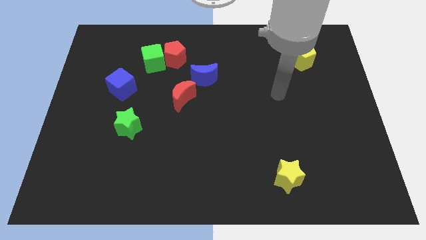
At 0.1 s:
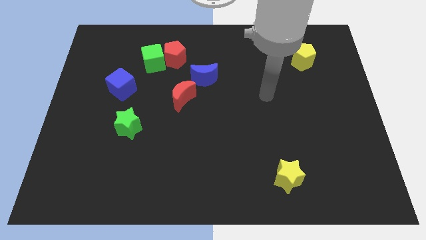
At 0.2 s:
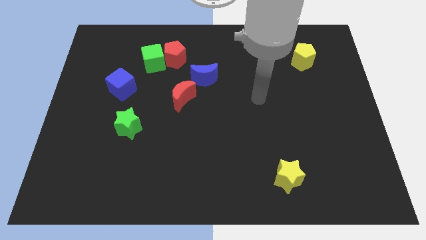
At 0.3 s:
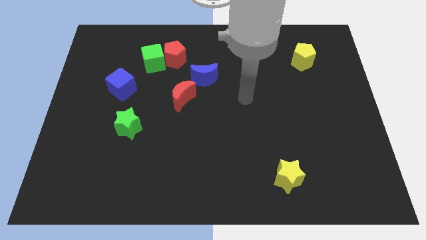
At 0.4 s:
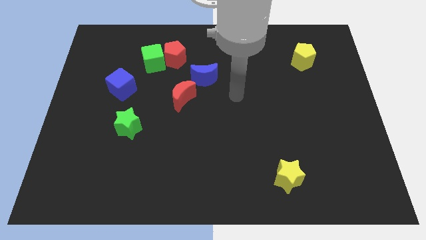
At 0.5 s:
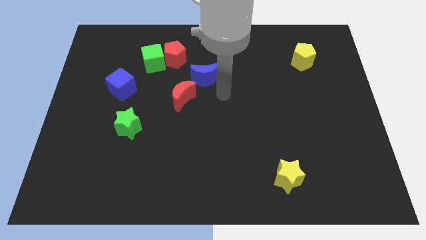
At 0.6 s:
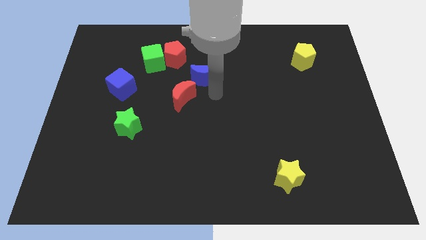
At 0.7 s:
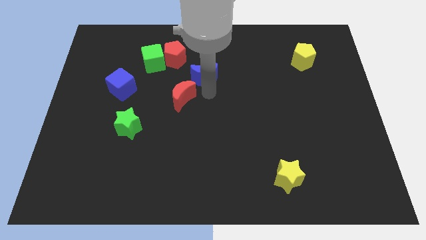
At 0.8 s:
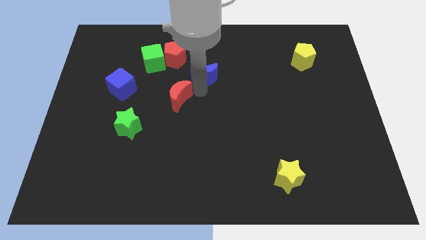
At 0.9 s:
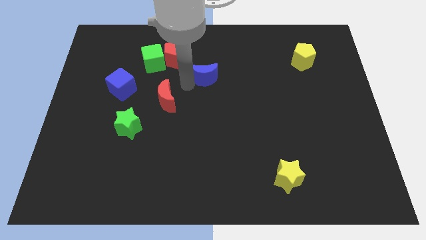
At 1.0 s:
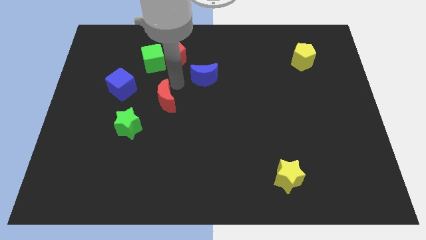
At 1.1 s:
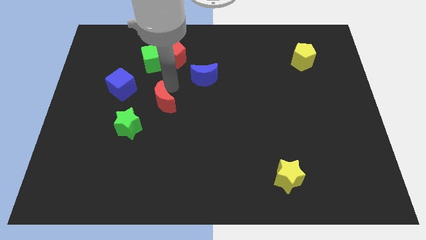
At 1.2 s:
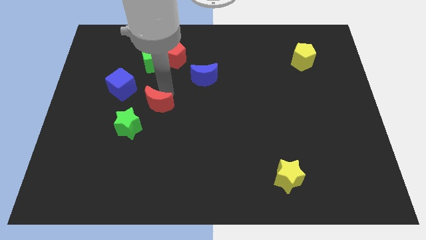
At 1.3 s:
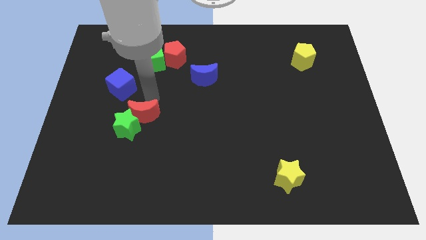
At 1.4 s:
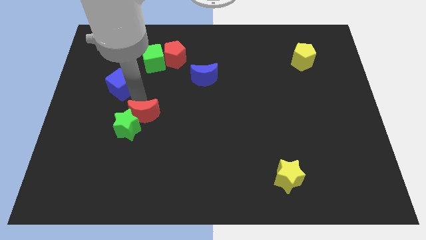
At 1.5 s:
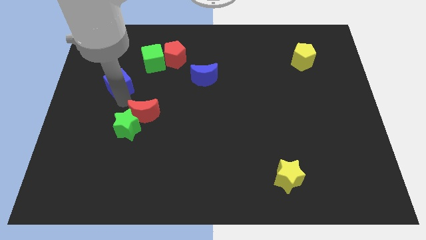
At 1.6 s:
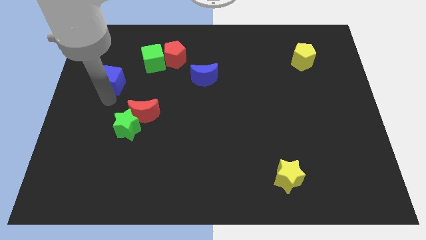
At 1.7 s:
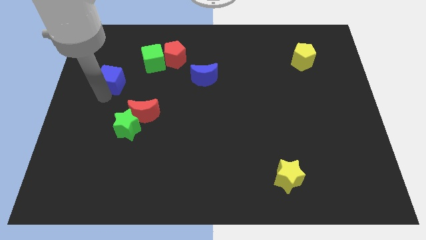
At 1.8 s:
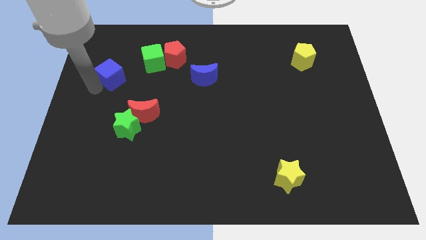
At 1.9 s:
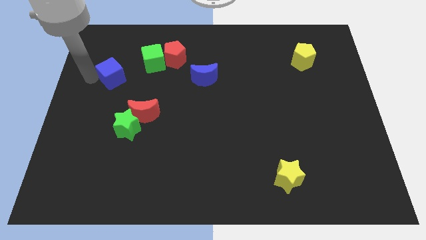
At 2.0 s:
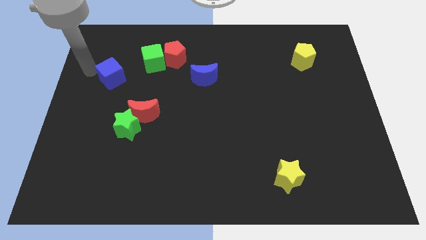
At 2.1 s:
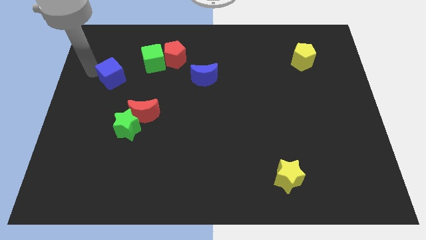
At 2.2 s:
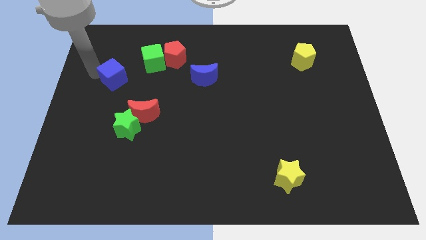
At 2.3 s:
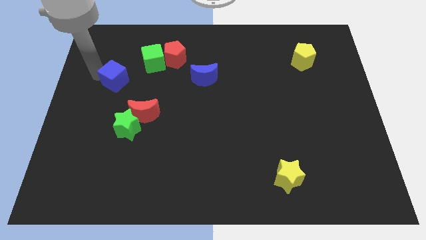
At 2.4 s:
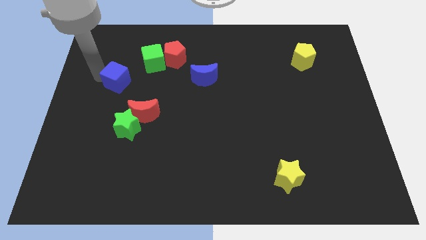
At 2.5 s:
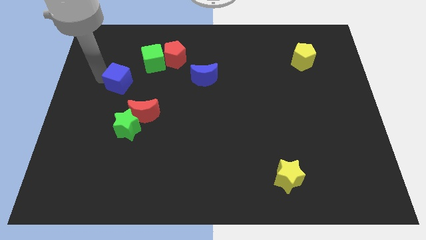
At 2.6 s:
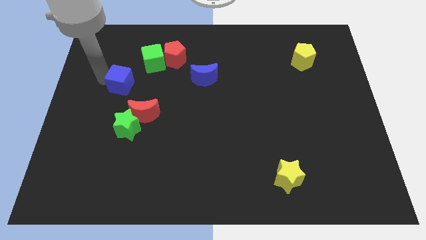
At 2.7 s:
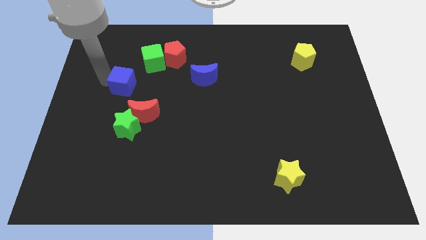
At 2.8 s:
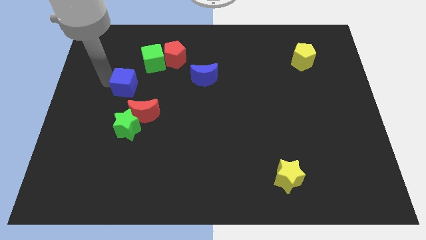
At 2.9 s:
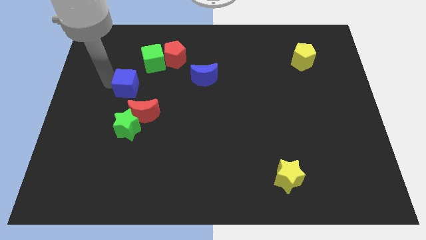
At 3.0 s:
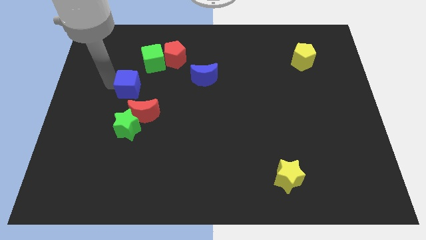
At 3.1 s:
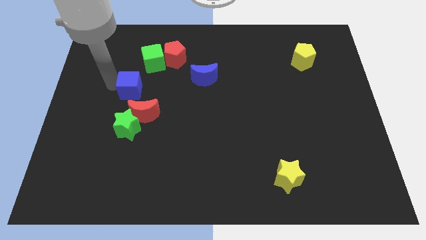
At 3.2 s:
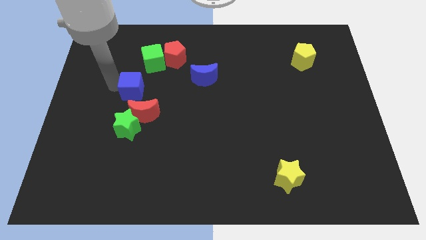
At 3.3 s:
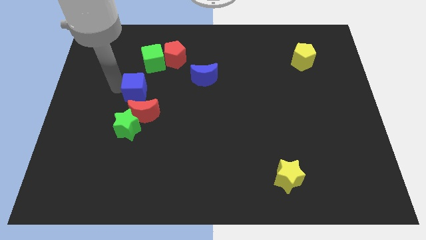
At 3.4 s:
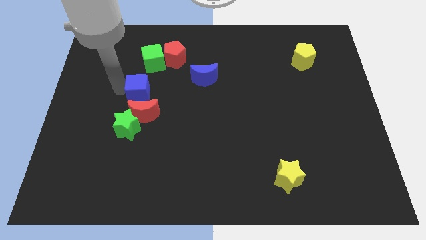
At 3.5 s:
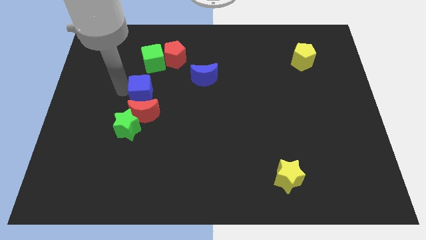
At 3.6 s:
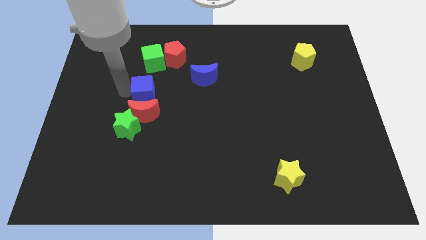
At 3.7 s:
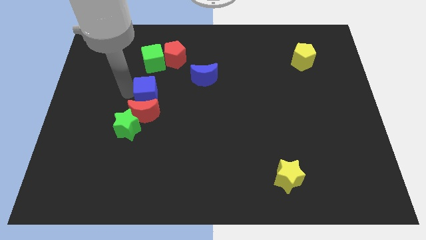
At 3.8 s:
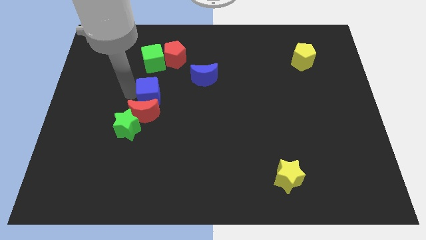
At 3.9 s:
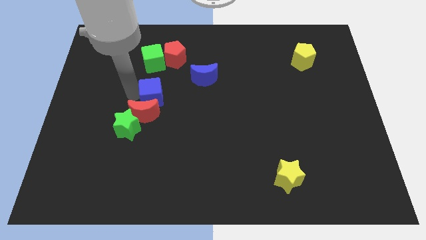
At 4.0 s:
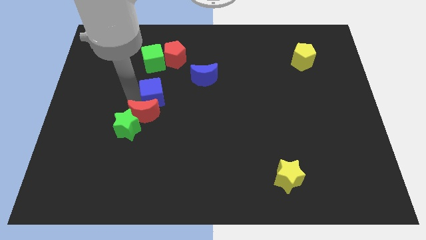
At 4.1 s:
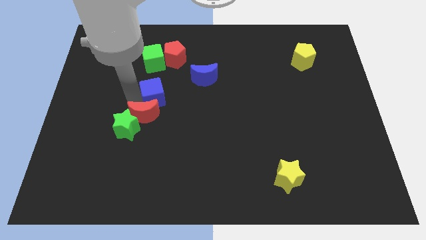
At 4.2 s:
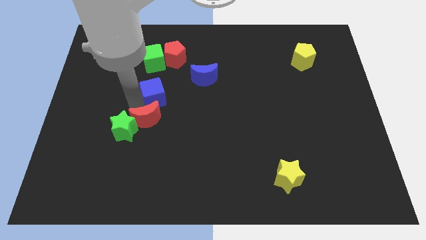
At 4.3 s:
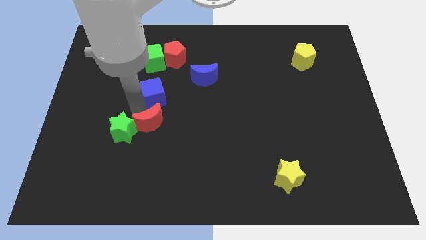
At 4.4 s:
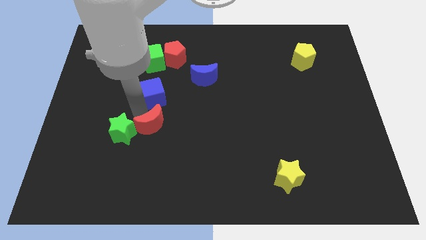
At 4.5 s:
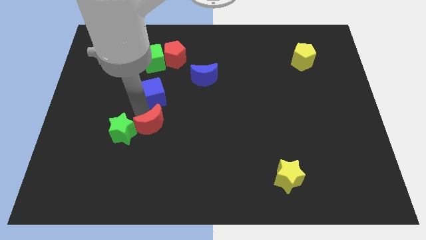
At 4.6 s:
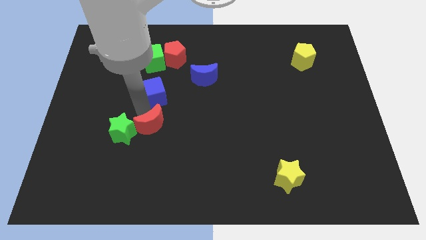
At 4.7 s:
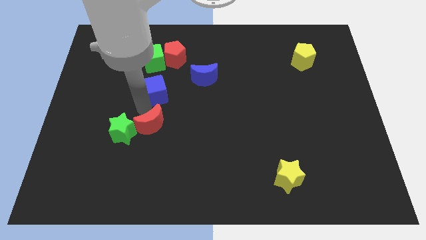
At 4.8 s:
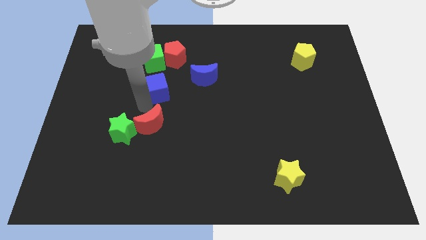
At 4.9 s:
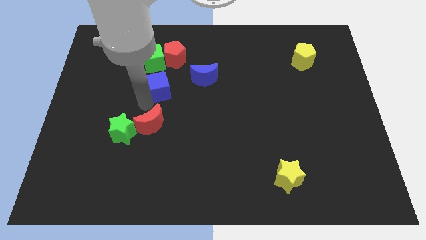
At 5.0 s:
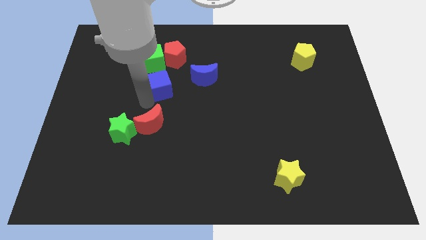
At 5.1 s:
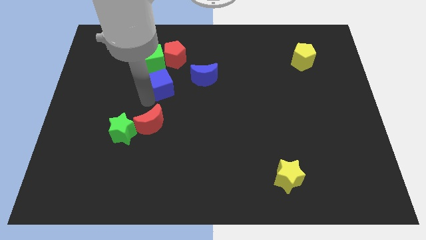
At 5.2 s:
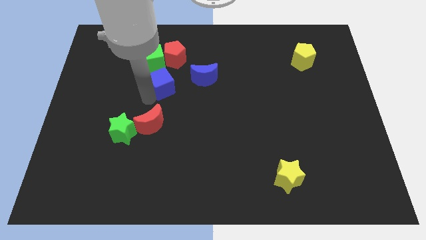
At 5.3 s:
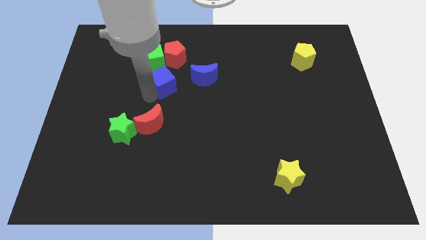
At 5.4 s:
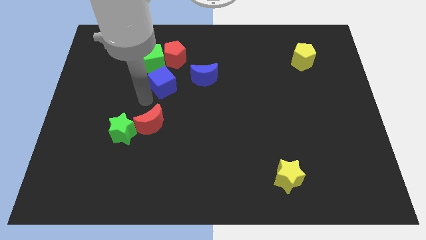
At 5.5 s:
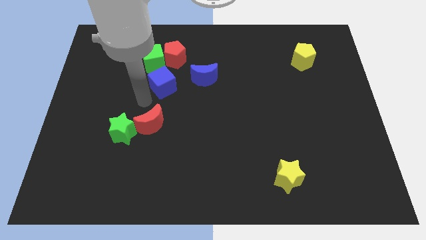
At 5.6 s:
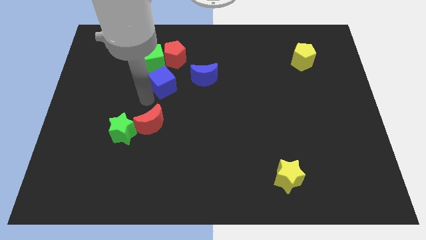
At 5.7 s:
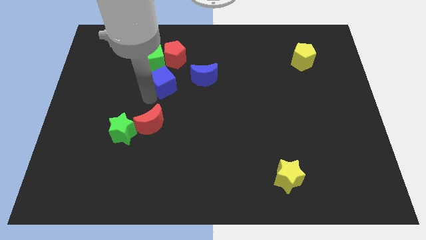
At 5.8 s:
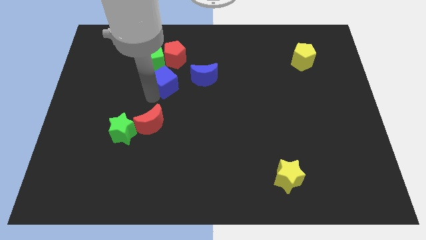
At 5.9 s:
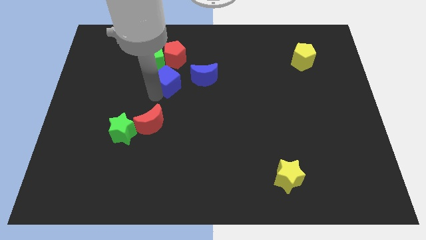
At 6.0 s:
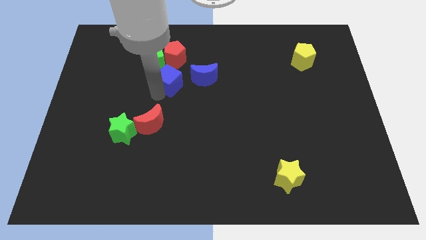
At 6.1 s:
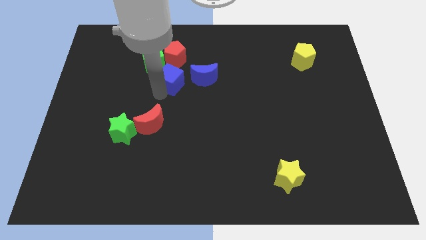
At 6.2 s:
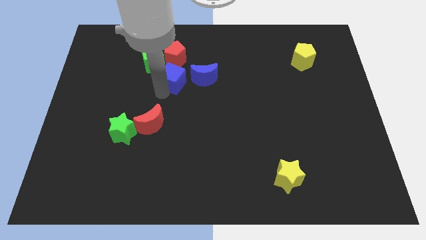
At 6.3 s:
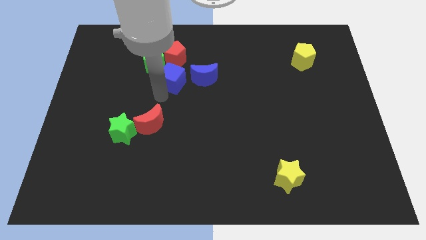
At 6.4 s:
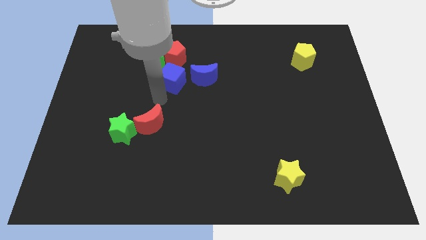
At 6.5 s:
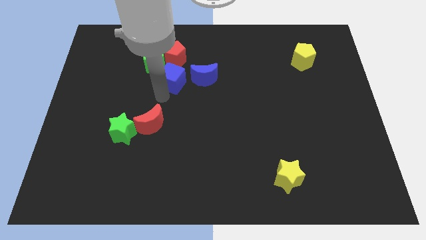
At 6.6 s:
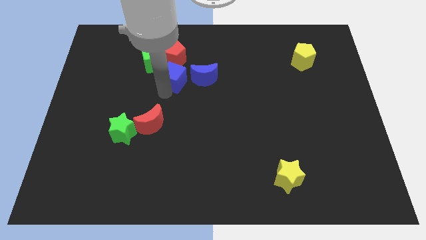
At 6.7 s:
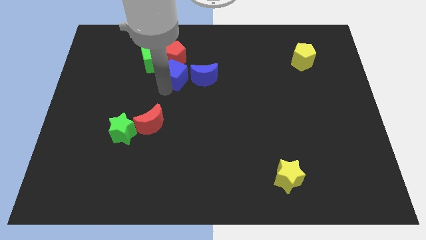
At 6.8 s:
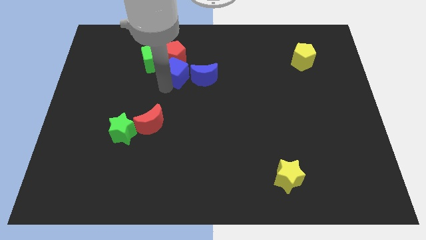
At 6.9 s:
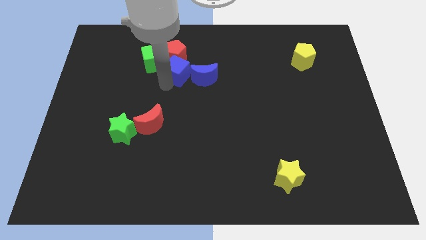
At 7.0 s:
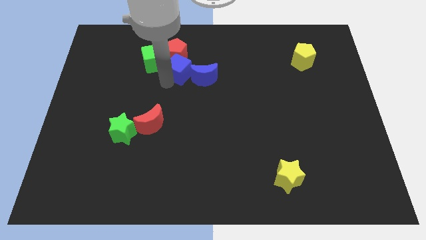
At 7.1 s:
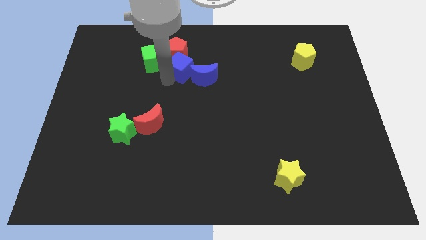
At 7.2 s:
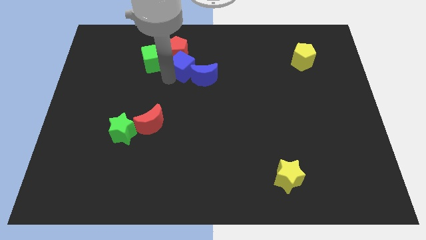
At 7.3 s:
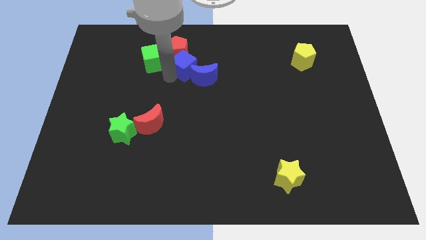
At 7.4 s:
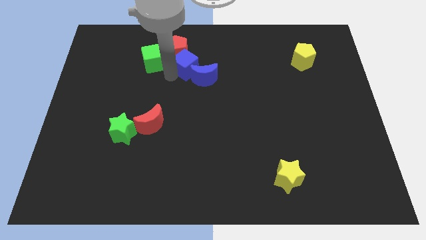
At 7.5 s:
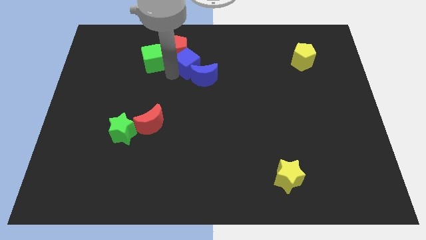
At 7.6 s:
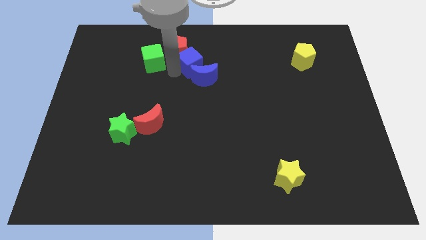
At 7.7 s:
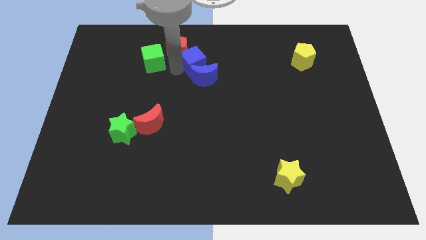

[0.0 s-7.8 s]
put the blue cube to the right side of the red pentagon
